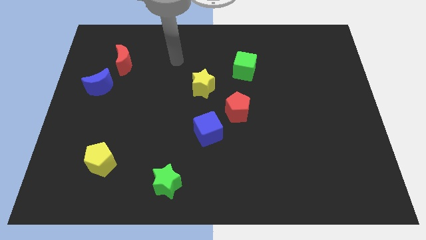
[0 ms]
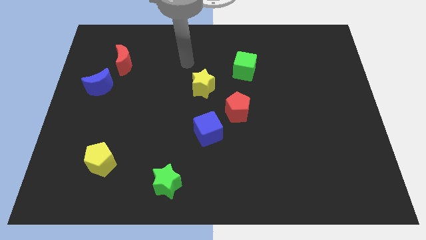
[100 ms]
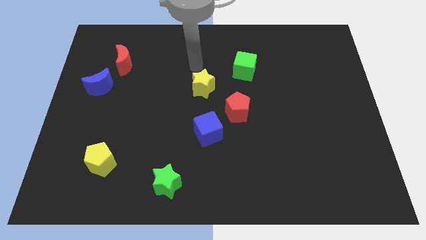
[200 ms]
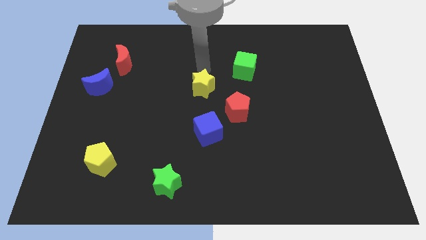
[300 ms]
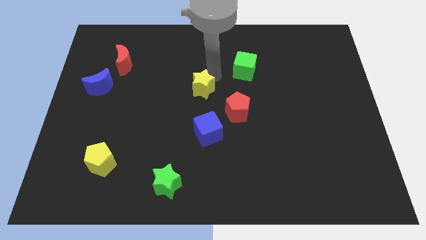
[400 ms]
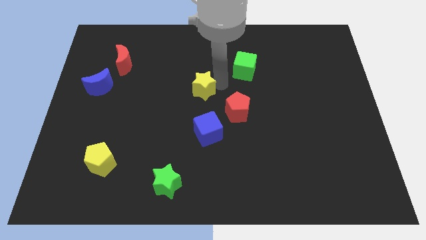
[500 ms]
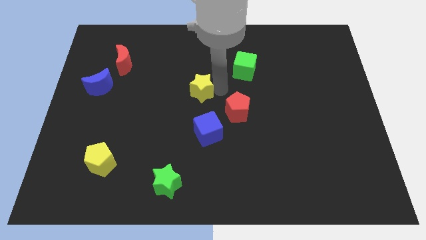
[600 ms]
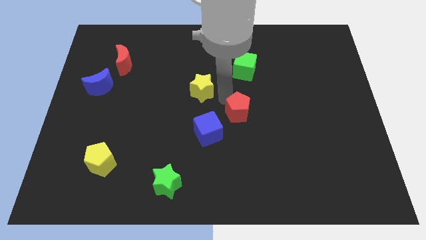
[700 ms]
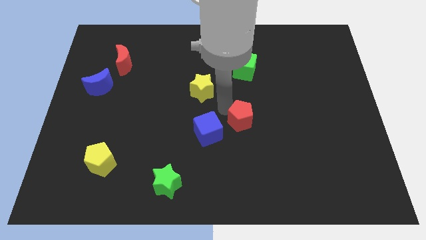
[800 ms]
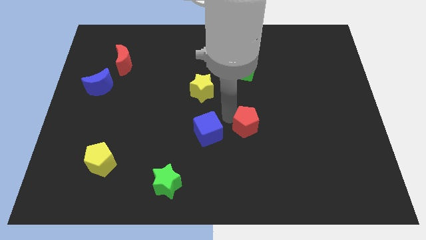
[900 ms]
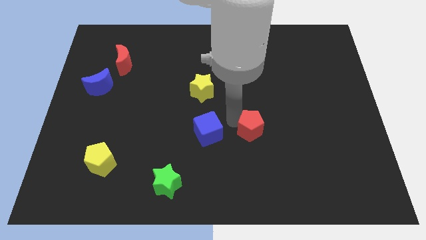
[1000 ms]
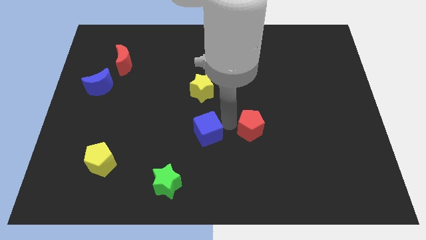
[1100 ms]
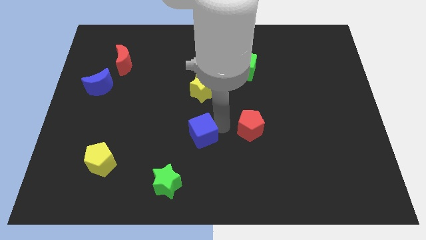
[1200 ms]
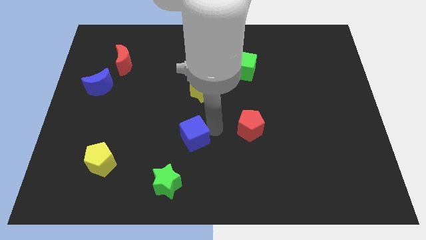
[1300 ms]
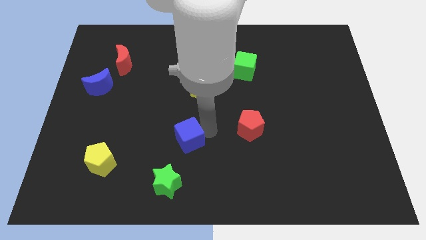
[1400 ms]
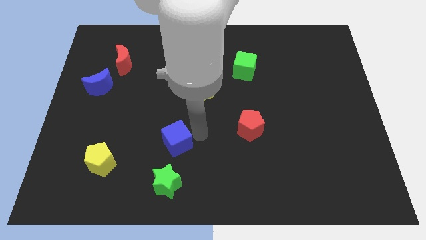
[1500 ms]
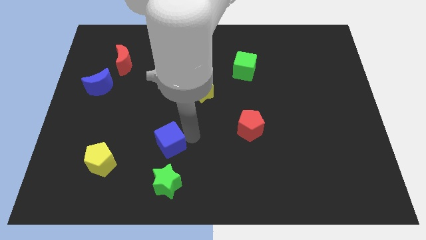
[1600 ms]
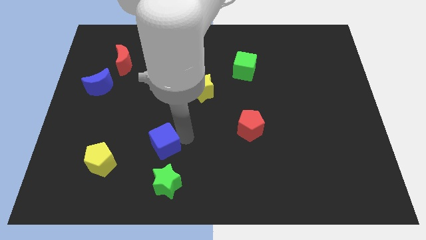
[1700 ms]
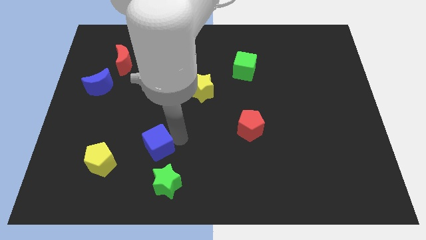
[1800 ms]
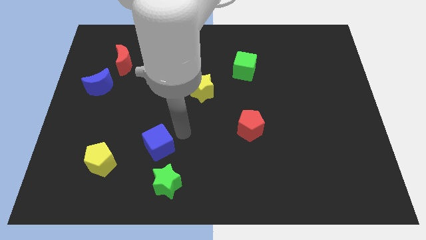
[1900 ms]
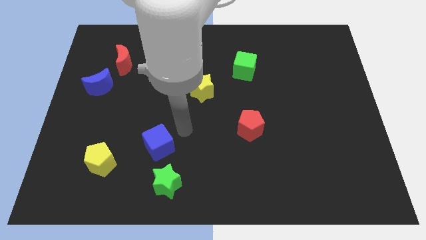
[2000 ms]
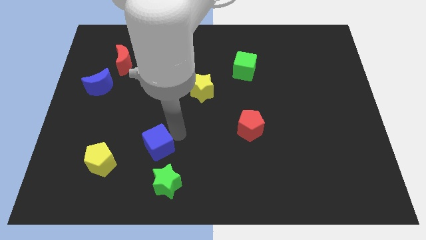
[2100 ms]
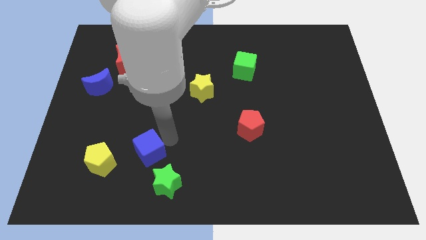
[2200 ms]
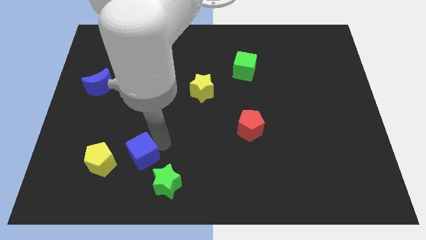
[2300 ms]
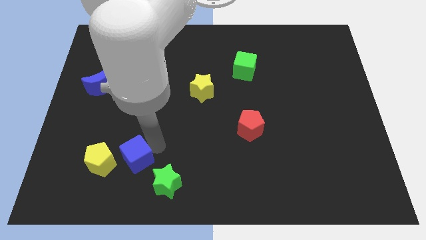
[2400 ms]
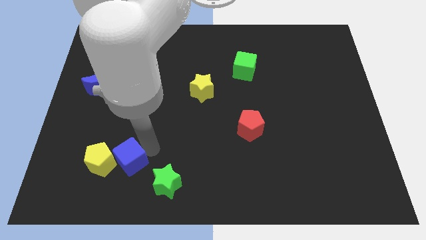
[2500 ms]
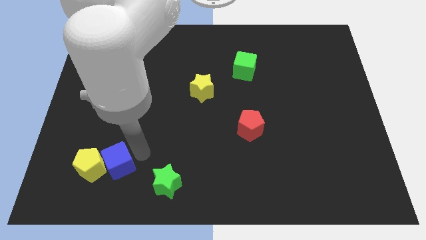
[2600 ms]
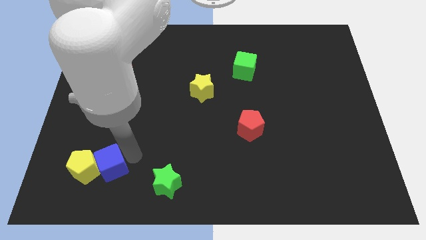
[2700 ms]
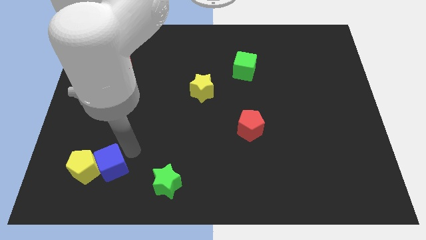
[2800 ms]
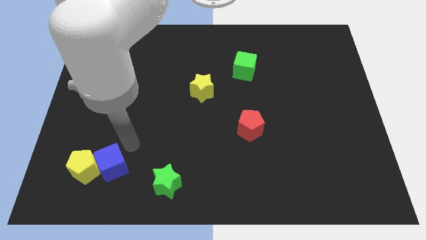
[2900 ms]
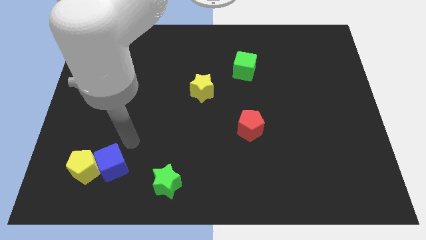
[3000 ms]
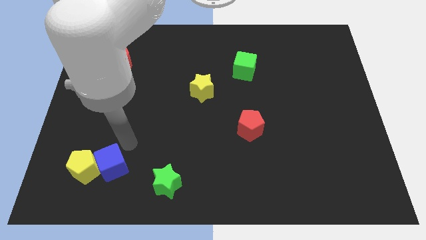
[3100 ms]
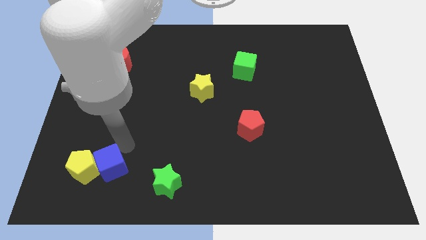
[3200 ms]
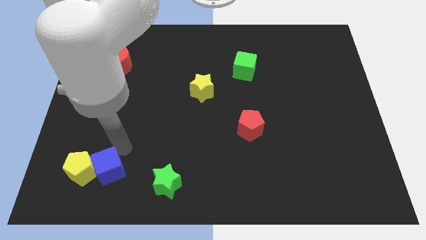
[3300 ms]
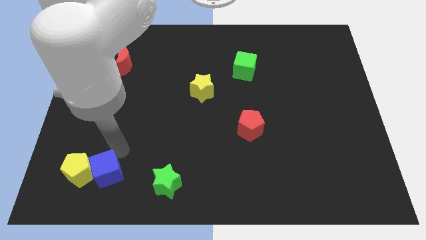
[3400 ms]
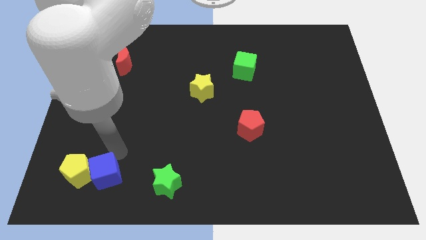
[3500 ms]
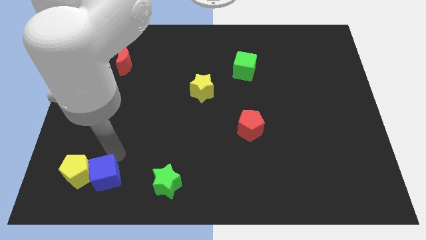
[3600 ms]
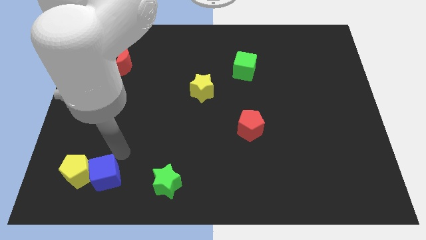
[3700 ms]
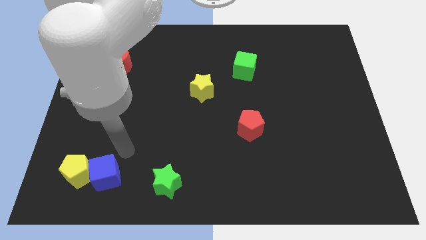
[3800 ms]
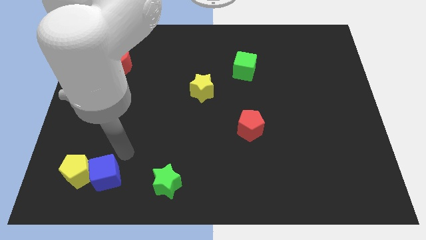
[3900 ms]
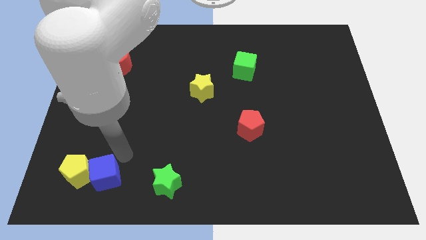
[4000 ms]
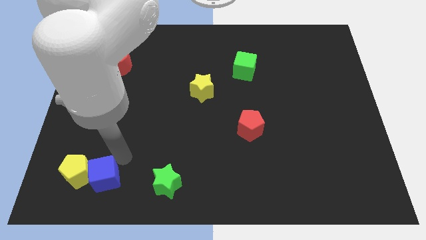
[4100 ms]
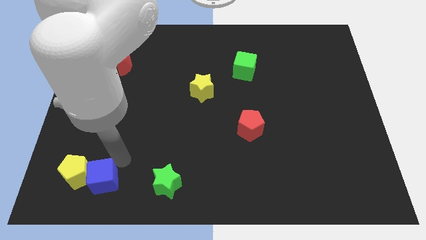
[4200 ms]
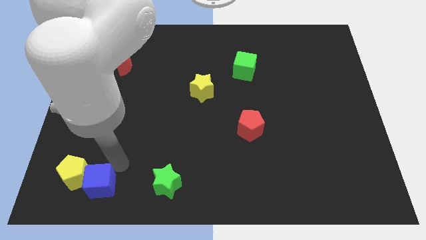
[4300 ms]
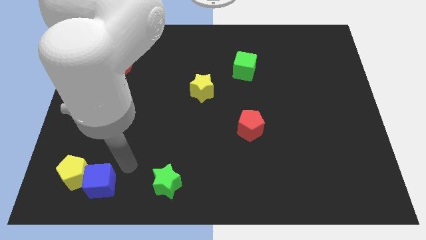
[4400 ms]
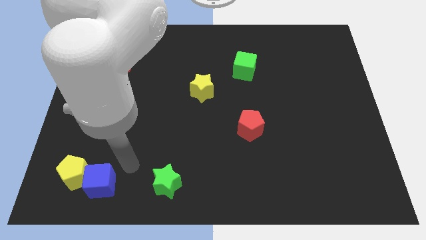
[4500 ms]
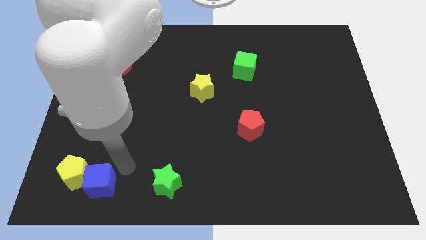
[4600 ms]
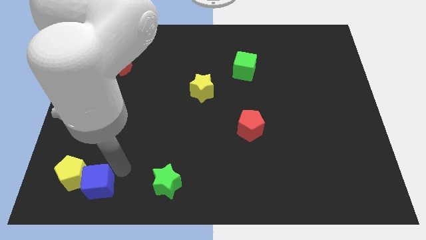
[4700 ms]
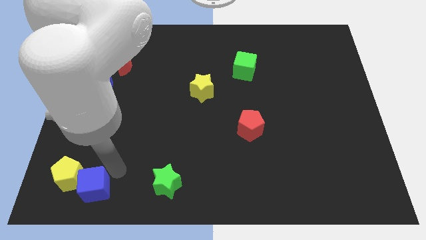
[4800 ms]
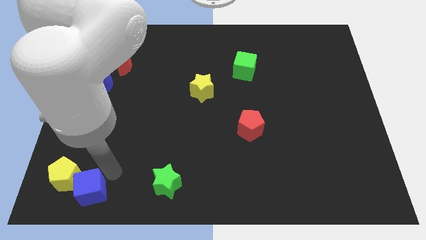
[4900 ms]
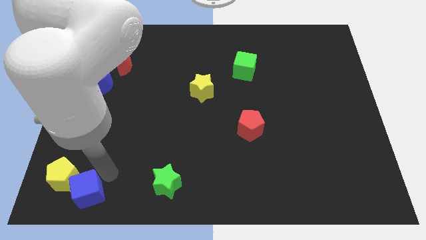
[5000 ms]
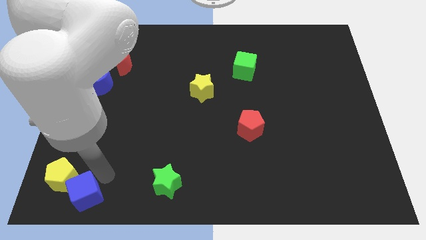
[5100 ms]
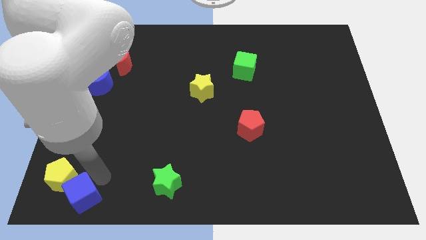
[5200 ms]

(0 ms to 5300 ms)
push the blue cube to the bottom left
